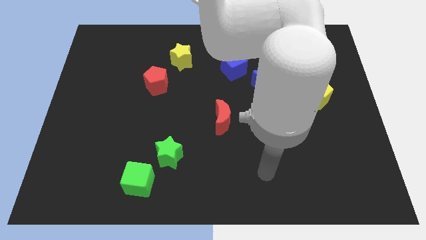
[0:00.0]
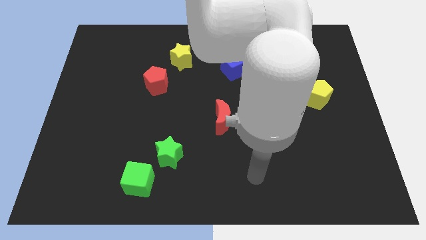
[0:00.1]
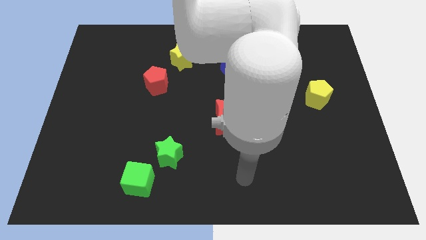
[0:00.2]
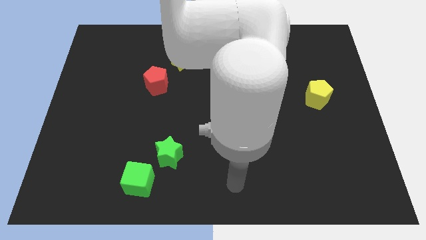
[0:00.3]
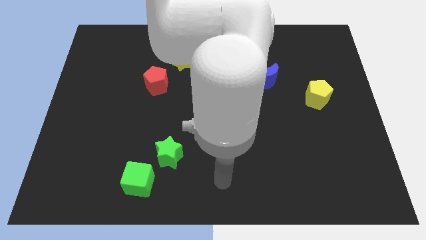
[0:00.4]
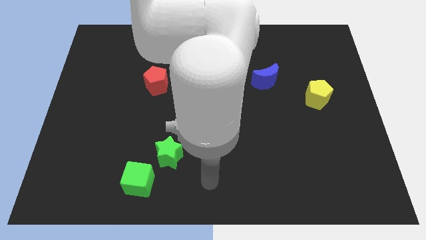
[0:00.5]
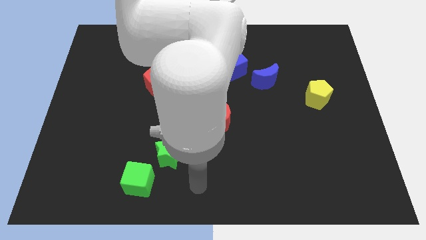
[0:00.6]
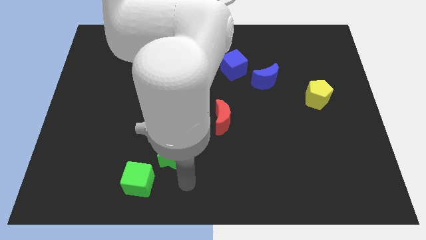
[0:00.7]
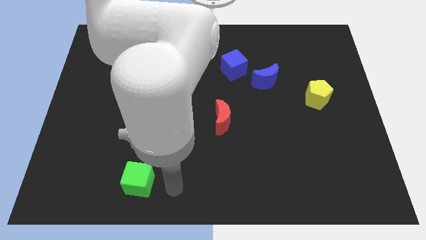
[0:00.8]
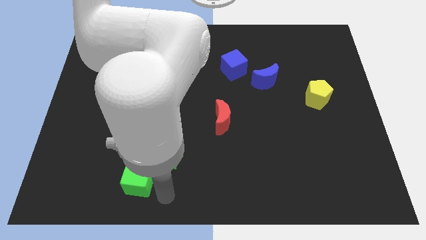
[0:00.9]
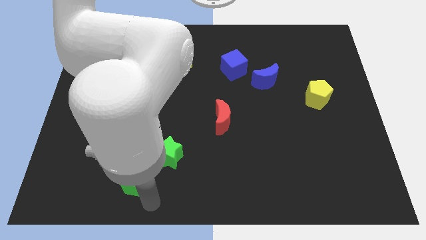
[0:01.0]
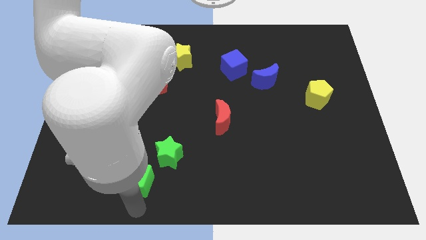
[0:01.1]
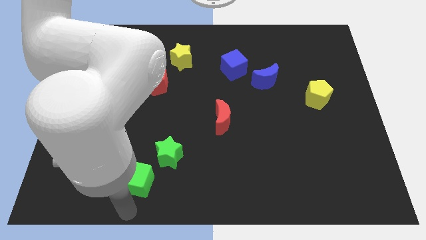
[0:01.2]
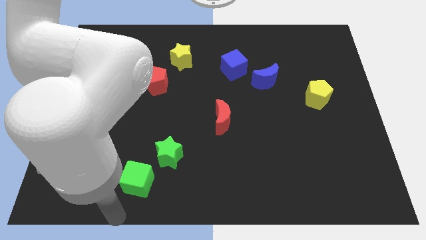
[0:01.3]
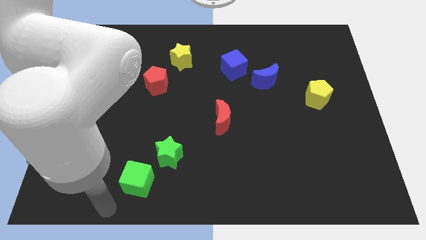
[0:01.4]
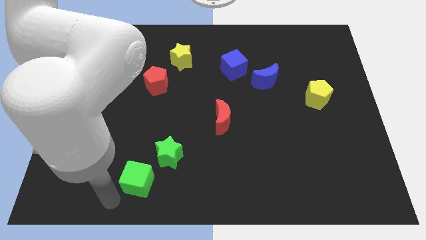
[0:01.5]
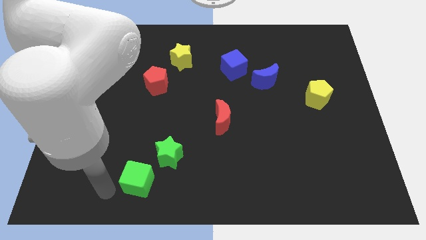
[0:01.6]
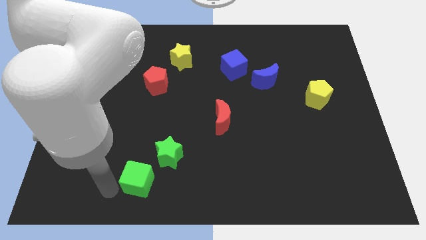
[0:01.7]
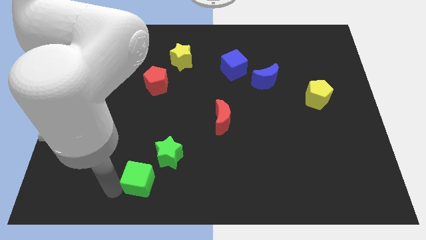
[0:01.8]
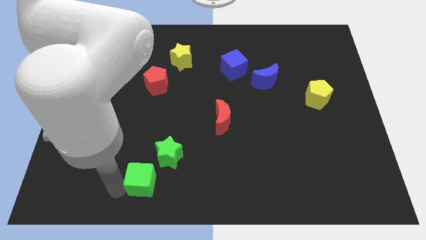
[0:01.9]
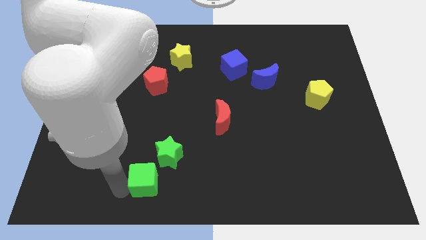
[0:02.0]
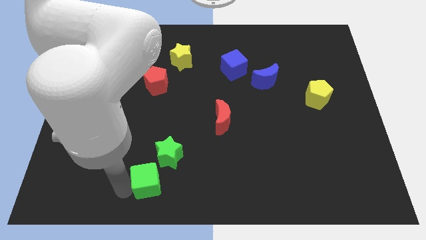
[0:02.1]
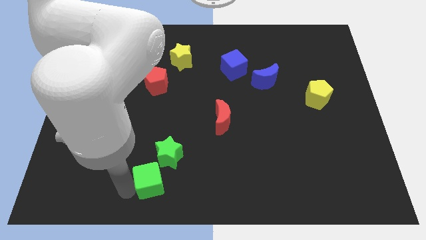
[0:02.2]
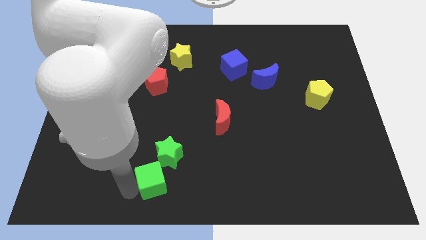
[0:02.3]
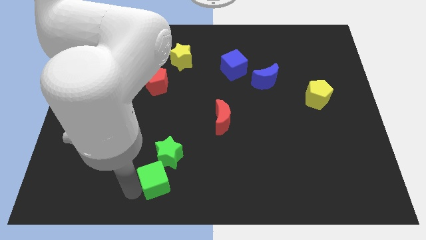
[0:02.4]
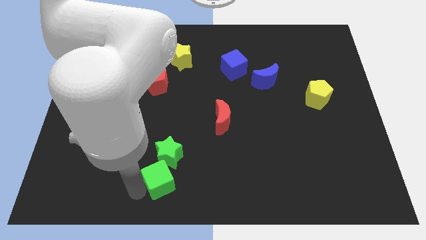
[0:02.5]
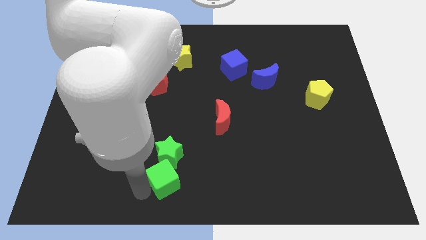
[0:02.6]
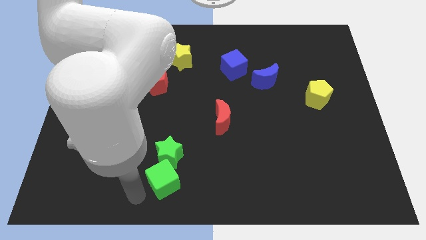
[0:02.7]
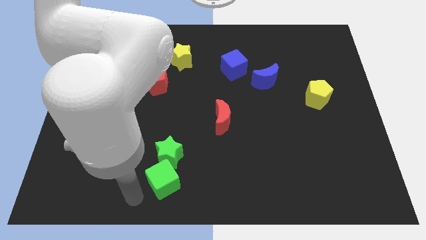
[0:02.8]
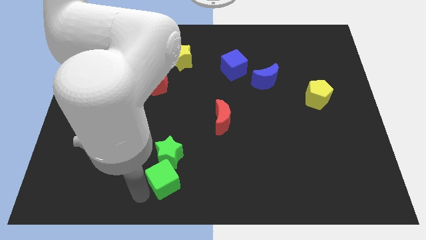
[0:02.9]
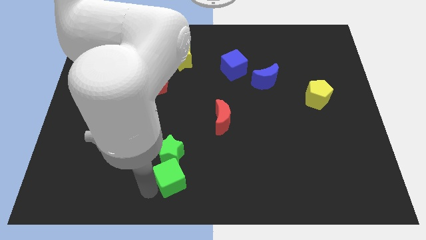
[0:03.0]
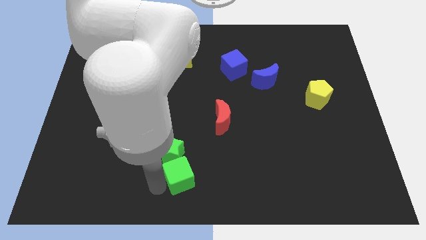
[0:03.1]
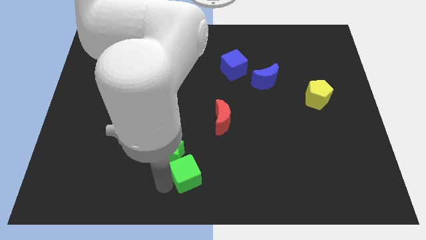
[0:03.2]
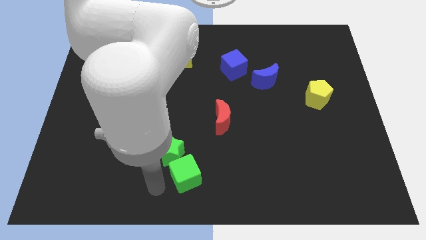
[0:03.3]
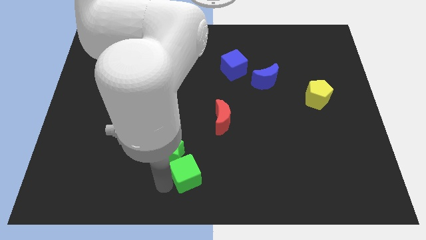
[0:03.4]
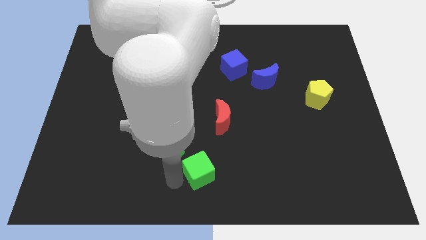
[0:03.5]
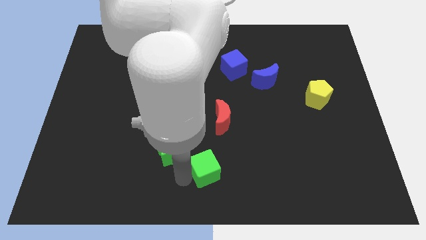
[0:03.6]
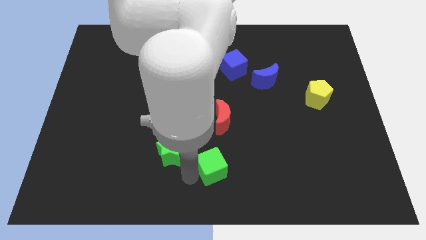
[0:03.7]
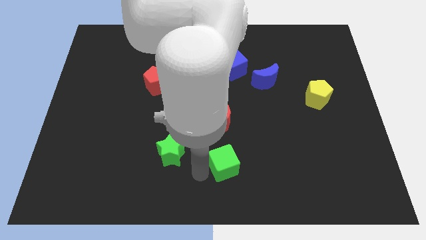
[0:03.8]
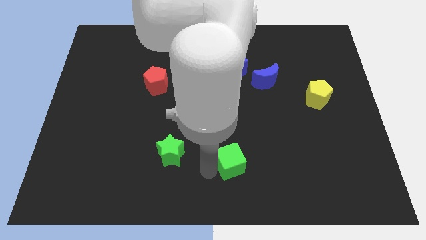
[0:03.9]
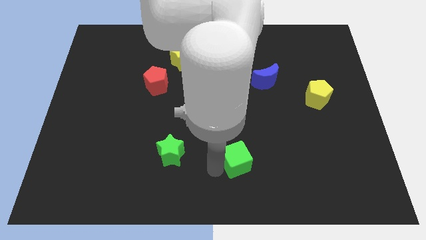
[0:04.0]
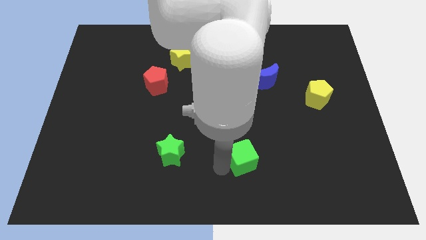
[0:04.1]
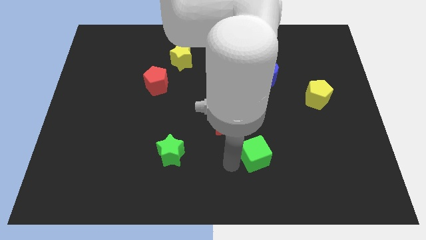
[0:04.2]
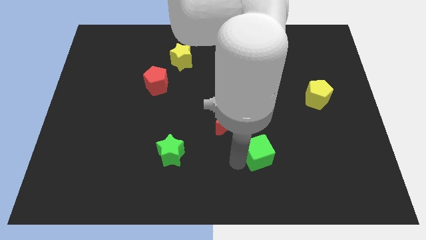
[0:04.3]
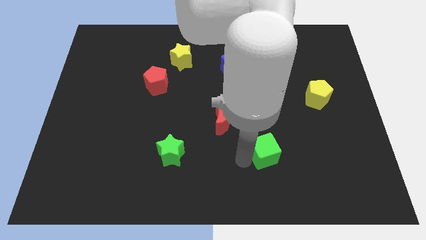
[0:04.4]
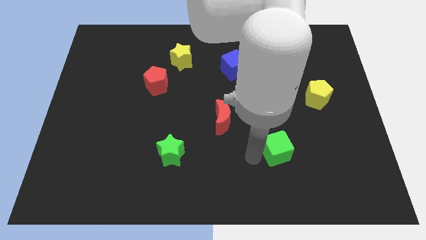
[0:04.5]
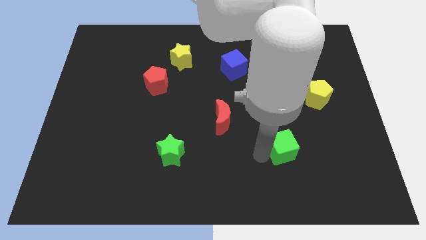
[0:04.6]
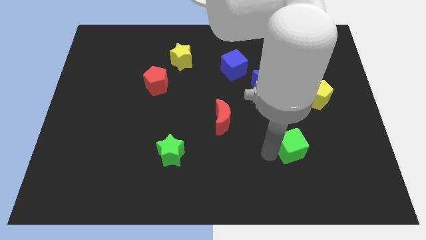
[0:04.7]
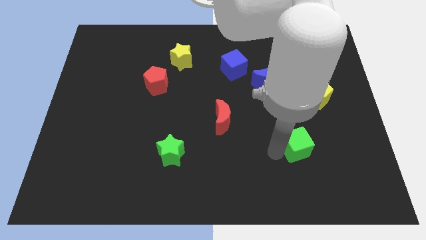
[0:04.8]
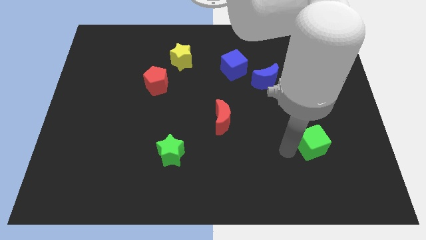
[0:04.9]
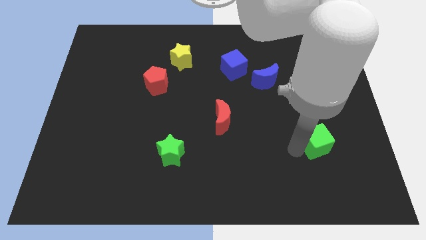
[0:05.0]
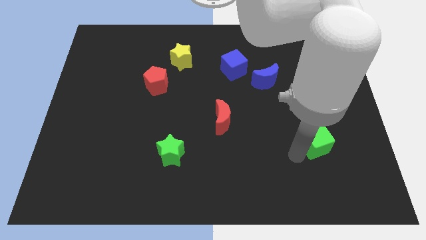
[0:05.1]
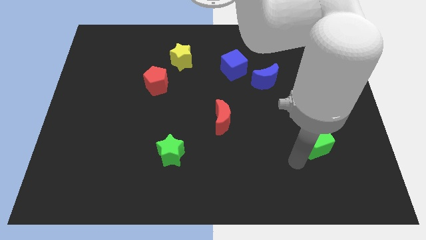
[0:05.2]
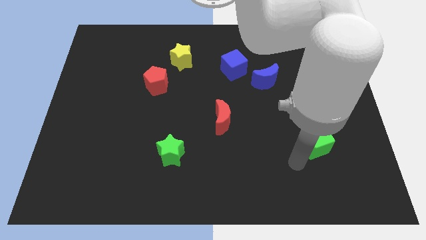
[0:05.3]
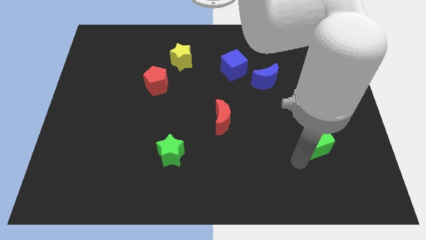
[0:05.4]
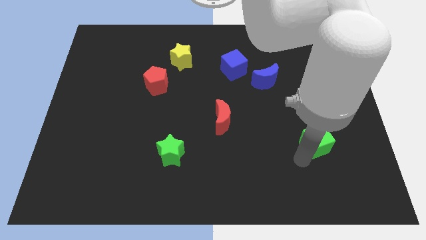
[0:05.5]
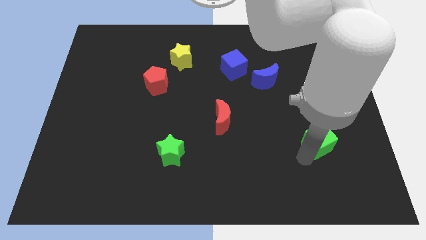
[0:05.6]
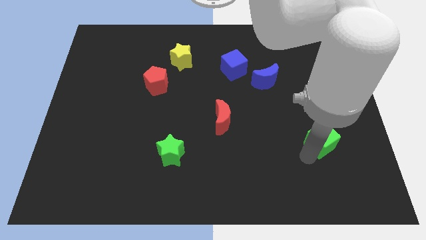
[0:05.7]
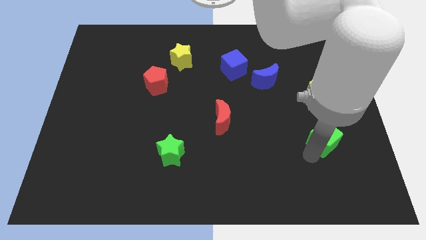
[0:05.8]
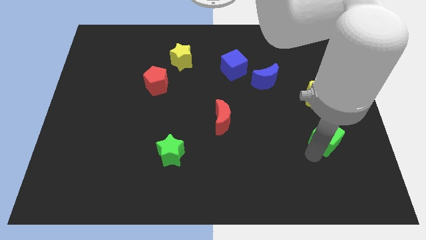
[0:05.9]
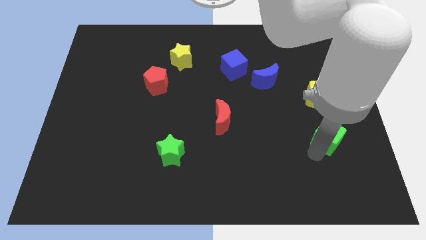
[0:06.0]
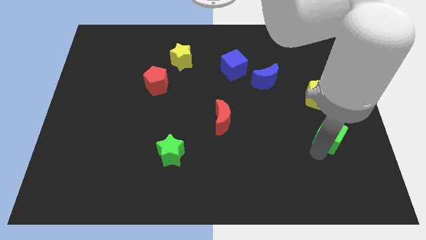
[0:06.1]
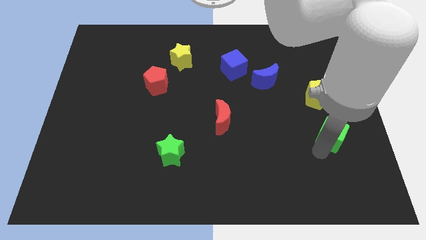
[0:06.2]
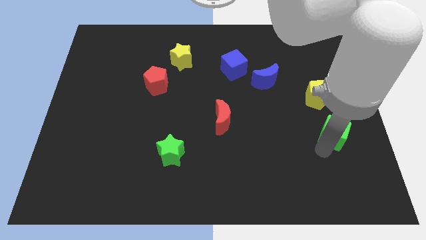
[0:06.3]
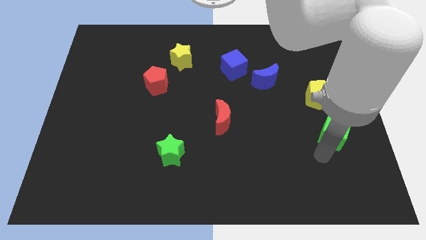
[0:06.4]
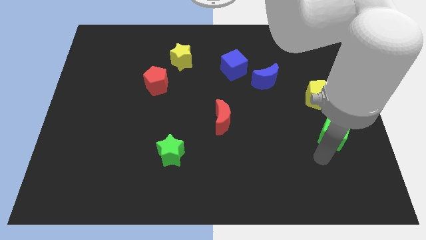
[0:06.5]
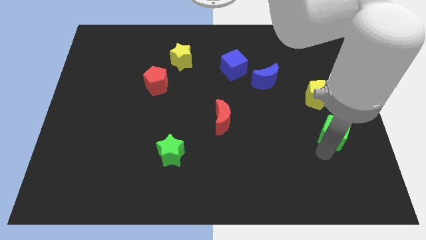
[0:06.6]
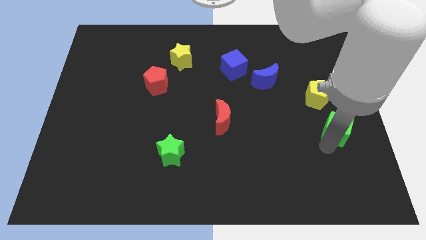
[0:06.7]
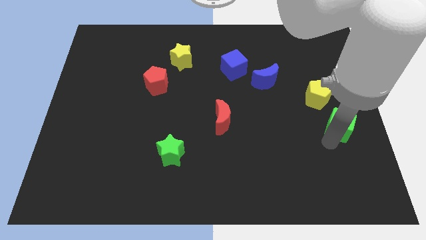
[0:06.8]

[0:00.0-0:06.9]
push the green cube to the right side
